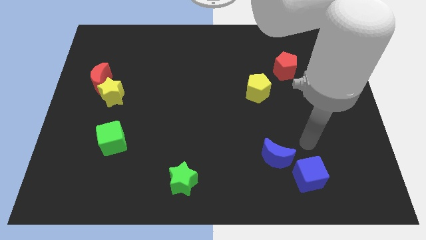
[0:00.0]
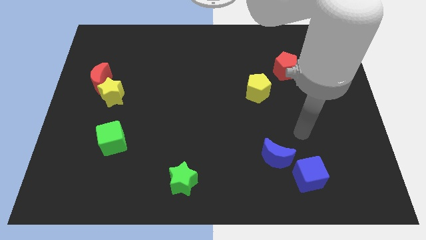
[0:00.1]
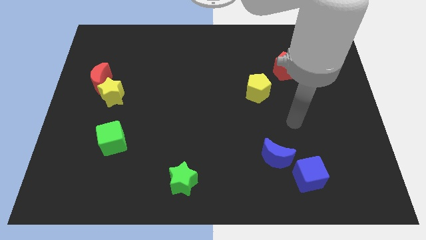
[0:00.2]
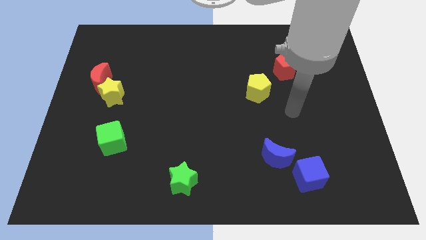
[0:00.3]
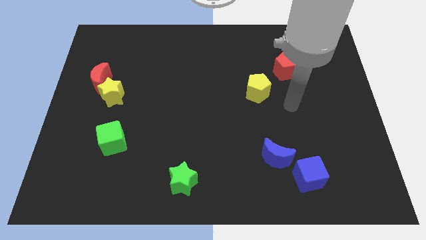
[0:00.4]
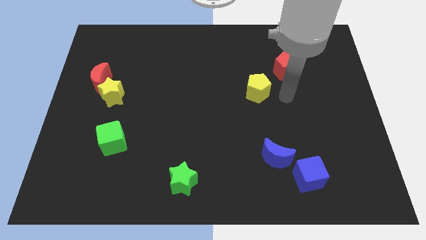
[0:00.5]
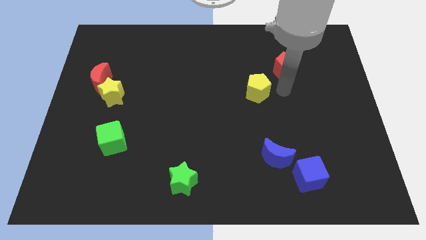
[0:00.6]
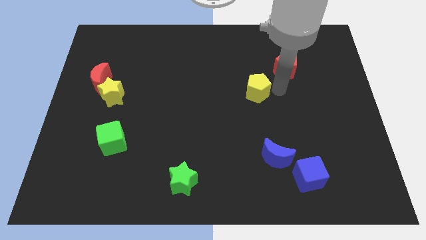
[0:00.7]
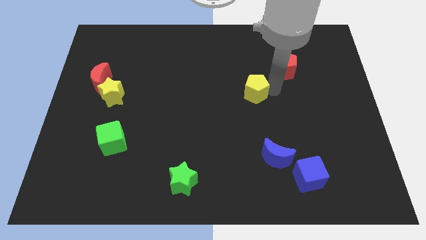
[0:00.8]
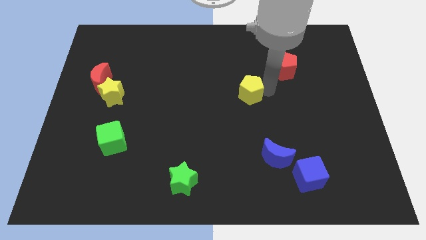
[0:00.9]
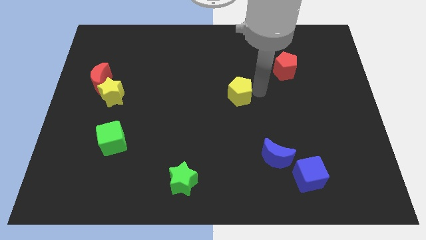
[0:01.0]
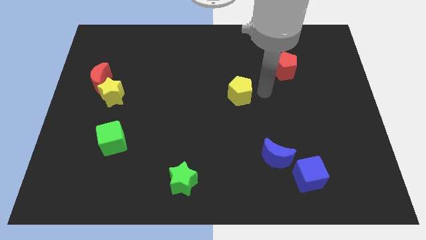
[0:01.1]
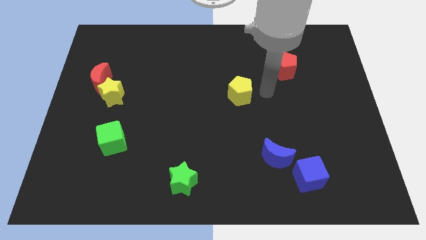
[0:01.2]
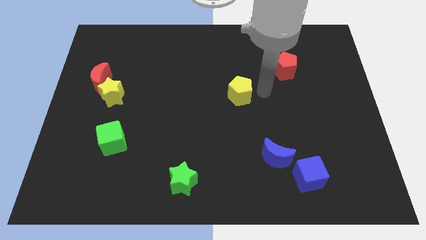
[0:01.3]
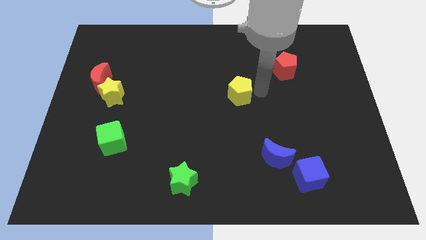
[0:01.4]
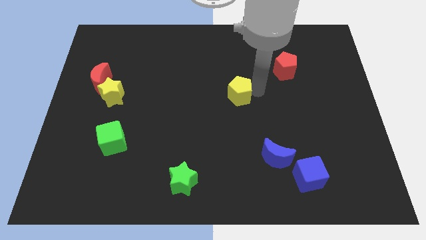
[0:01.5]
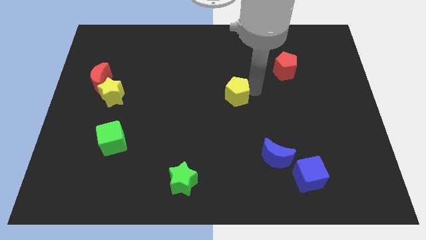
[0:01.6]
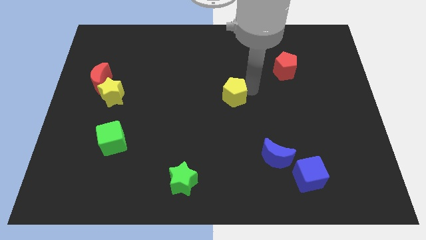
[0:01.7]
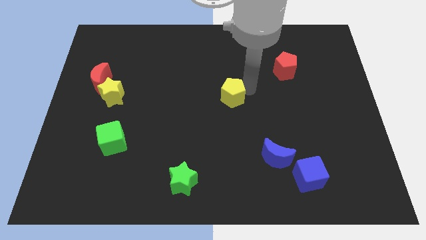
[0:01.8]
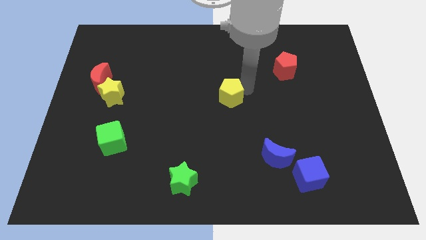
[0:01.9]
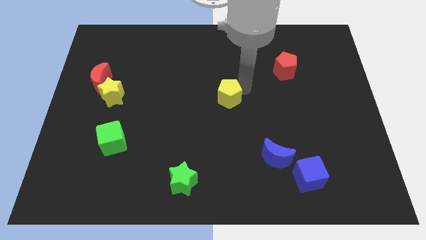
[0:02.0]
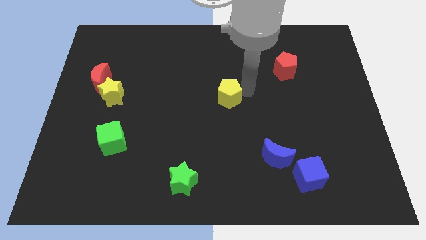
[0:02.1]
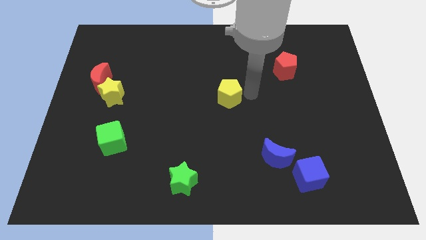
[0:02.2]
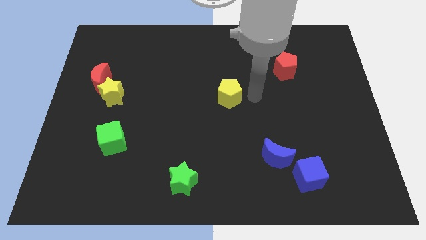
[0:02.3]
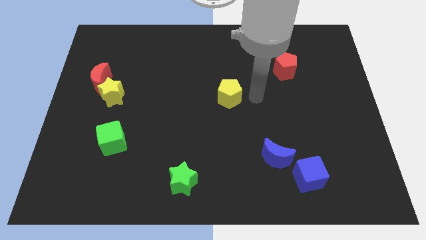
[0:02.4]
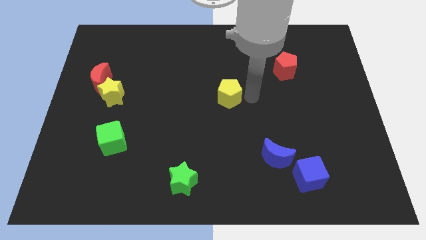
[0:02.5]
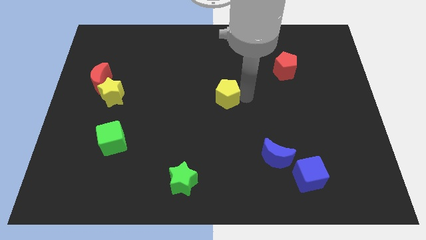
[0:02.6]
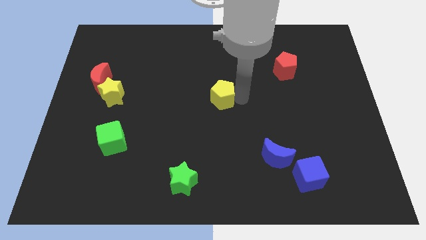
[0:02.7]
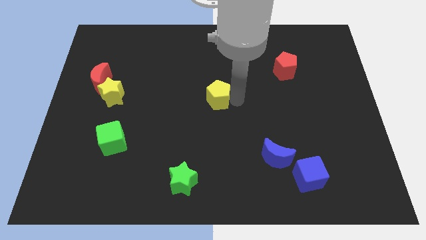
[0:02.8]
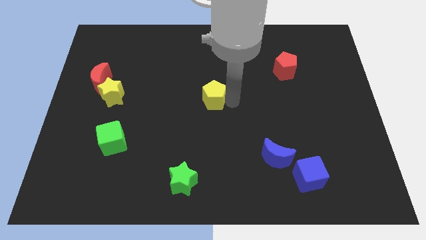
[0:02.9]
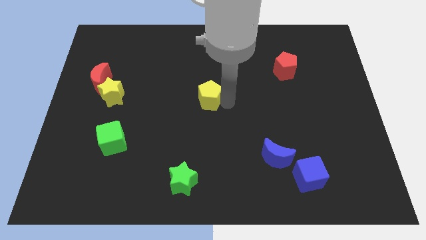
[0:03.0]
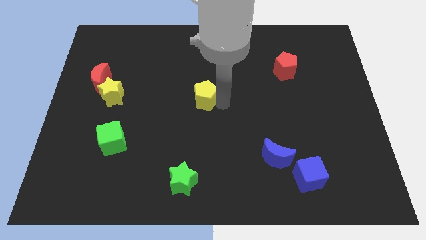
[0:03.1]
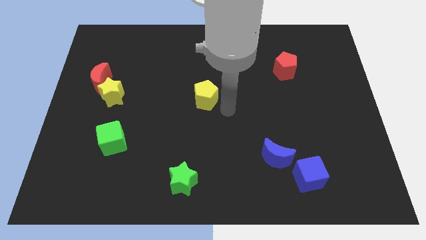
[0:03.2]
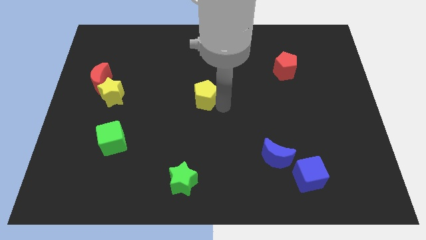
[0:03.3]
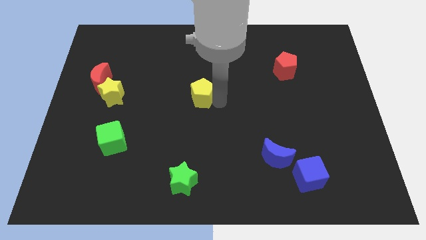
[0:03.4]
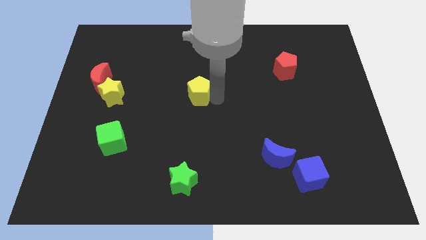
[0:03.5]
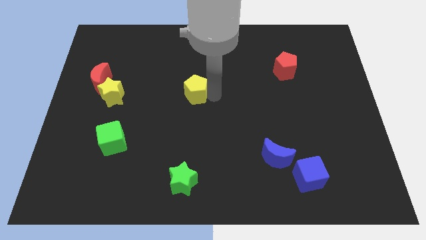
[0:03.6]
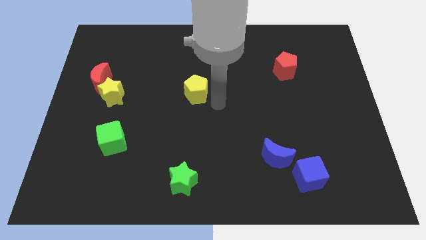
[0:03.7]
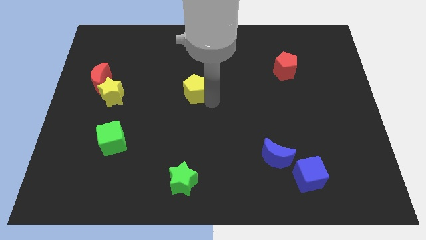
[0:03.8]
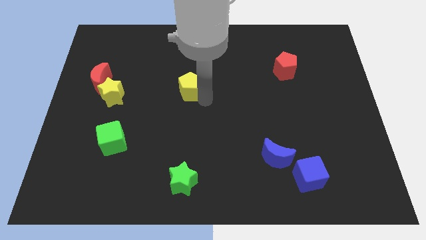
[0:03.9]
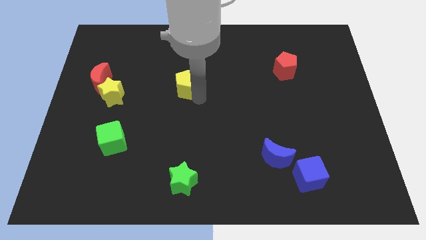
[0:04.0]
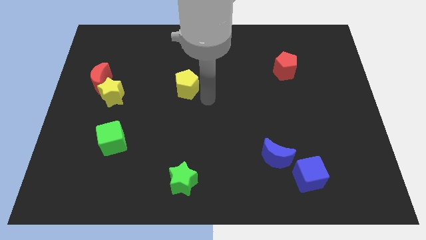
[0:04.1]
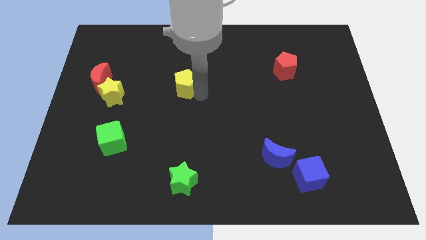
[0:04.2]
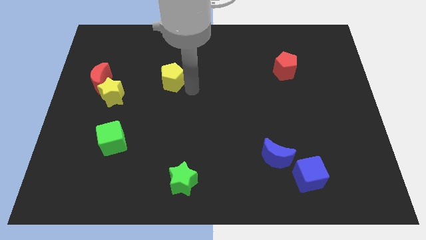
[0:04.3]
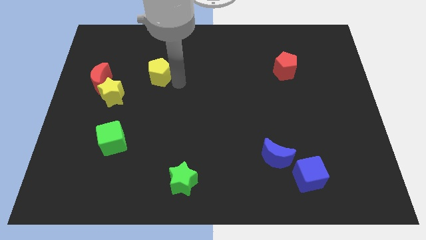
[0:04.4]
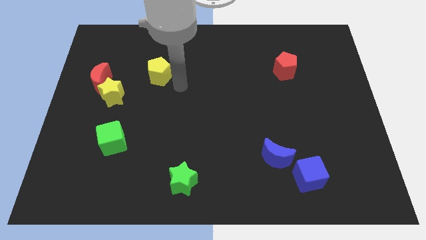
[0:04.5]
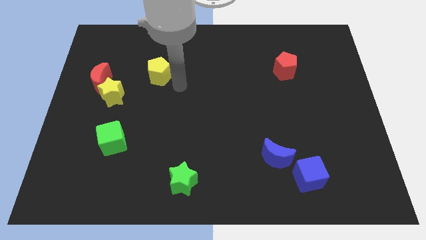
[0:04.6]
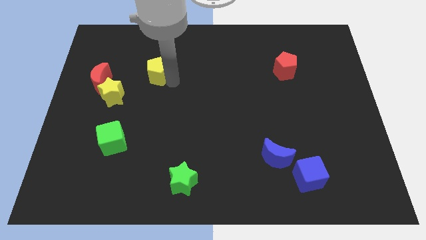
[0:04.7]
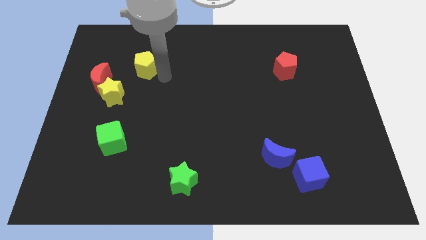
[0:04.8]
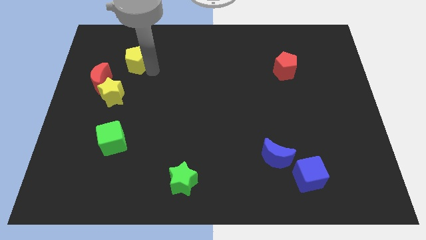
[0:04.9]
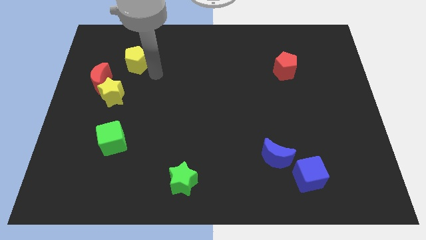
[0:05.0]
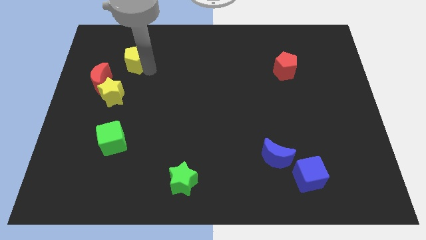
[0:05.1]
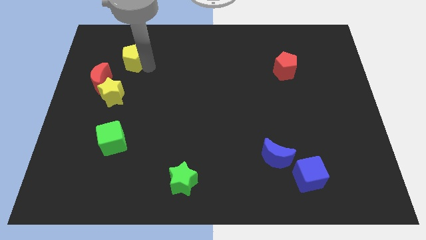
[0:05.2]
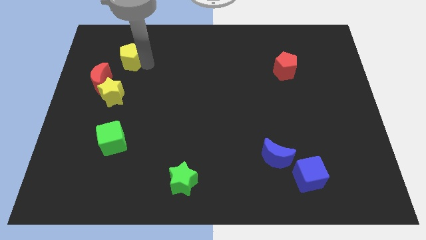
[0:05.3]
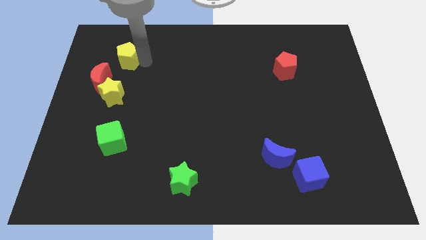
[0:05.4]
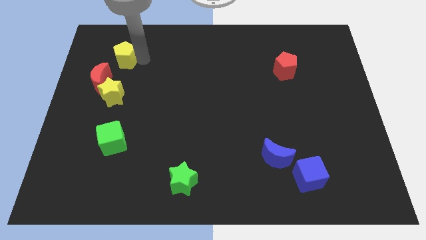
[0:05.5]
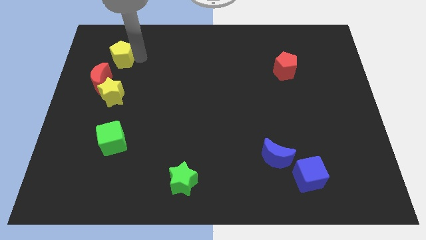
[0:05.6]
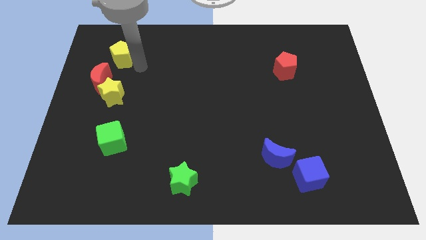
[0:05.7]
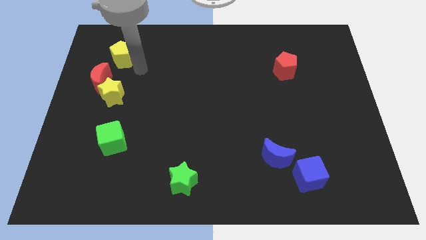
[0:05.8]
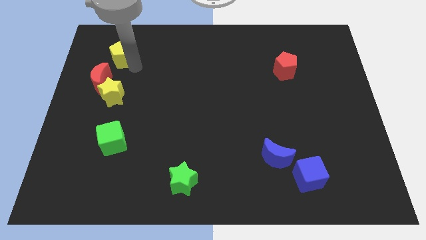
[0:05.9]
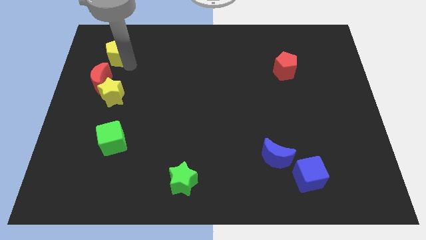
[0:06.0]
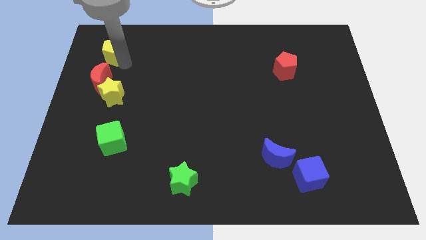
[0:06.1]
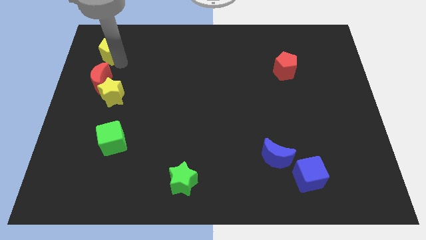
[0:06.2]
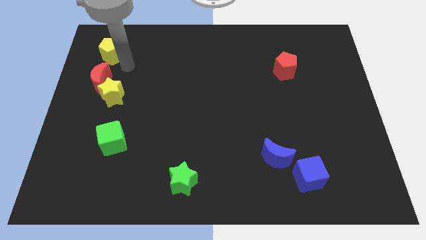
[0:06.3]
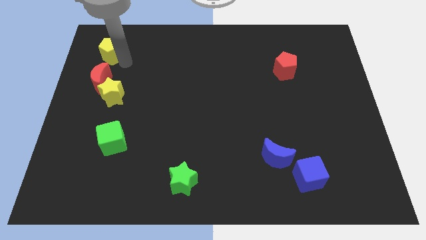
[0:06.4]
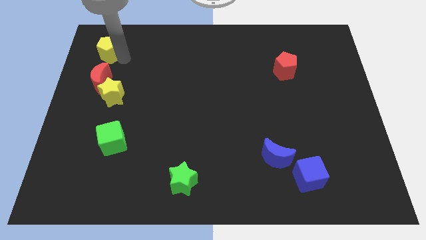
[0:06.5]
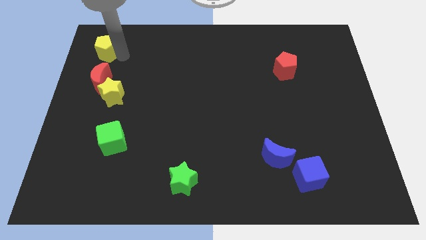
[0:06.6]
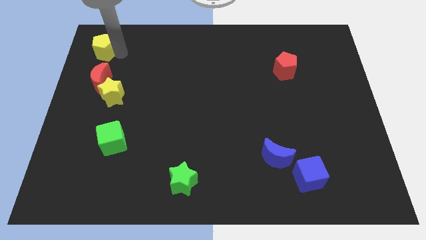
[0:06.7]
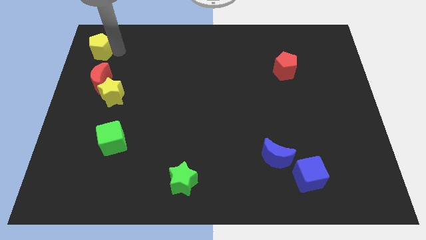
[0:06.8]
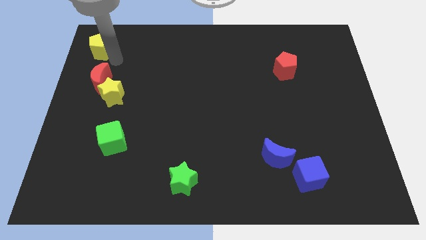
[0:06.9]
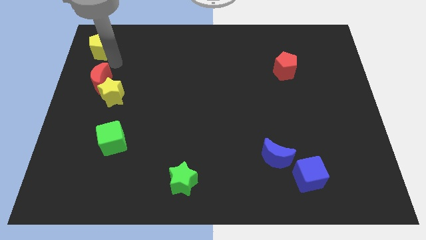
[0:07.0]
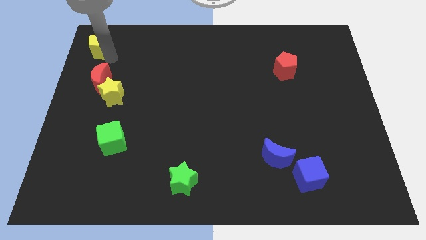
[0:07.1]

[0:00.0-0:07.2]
push the yellow pentagon to the top left
